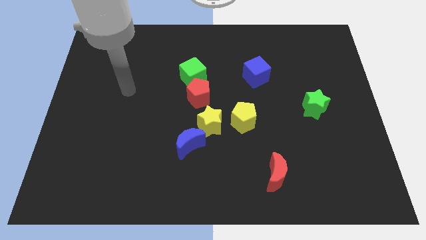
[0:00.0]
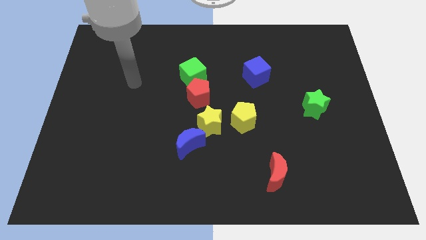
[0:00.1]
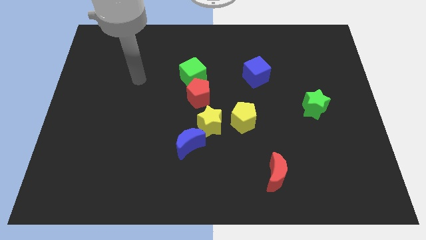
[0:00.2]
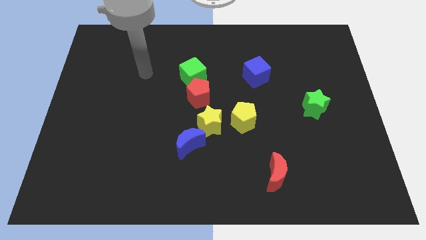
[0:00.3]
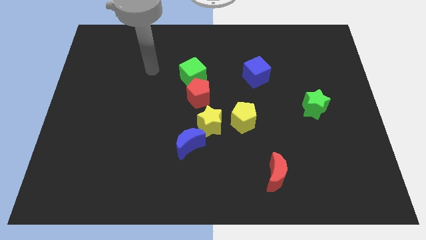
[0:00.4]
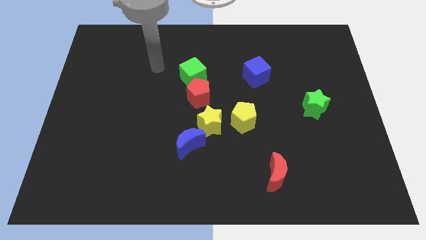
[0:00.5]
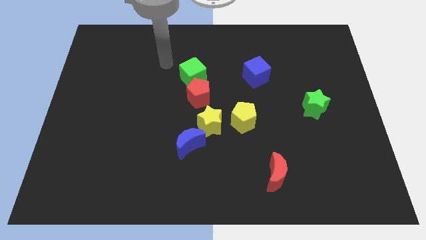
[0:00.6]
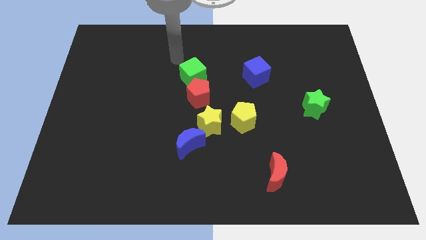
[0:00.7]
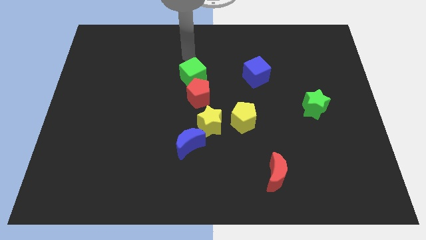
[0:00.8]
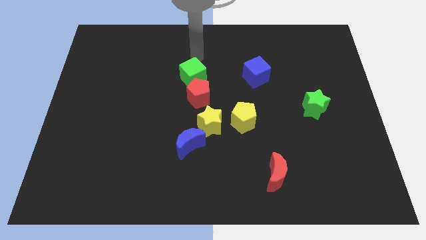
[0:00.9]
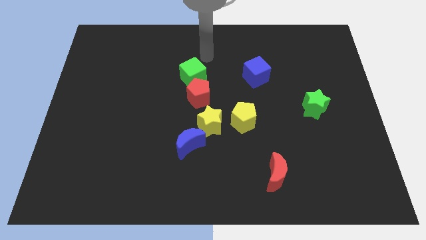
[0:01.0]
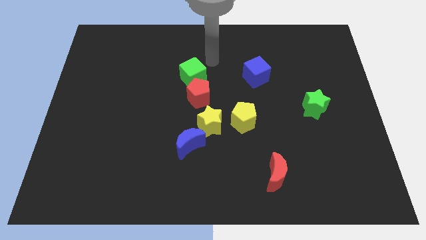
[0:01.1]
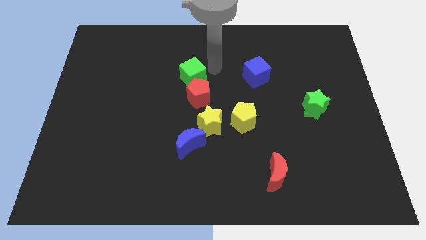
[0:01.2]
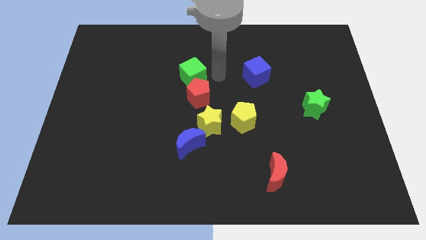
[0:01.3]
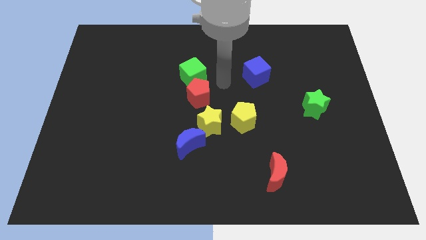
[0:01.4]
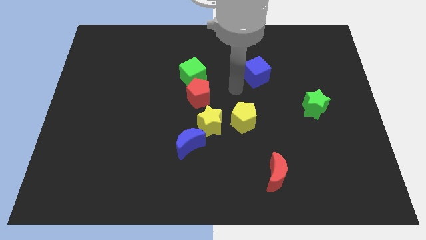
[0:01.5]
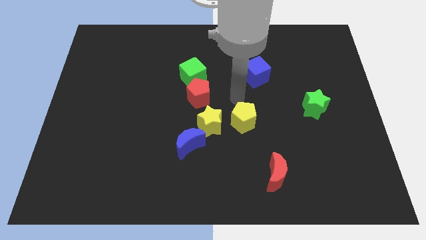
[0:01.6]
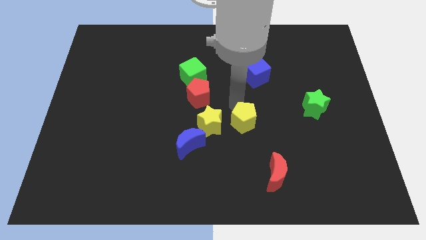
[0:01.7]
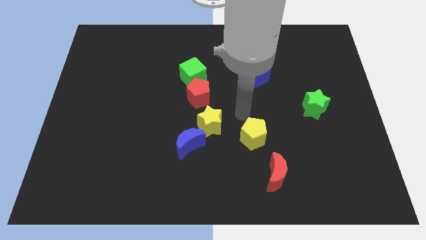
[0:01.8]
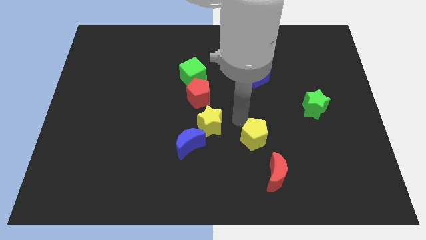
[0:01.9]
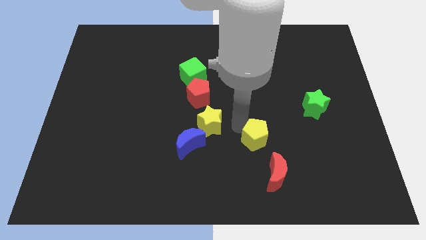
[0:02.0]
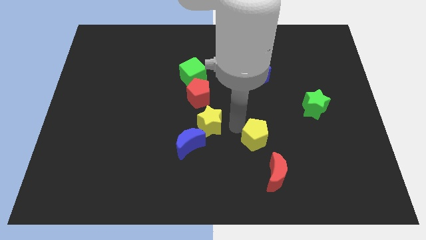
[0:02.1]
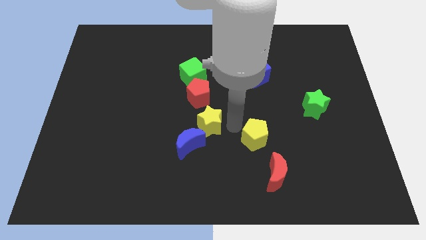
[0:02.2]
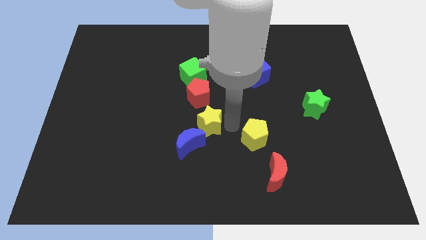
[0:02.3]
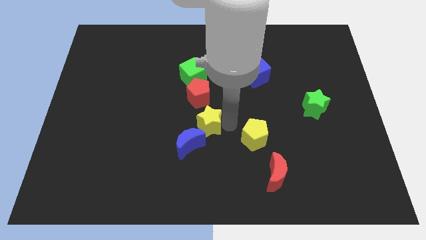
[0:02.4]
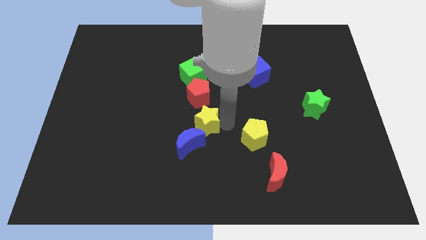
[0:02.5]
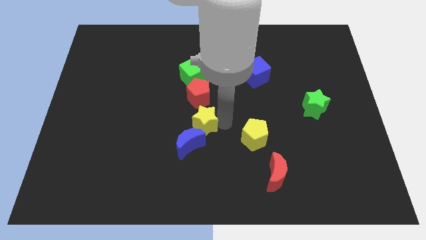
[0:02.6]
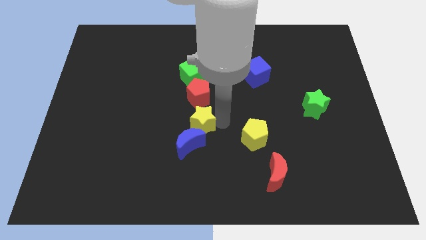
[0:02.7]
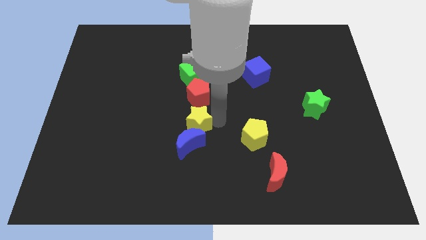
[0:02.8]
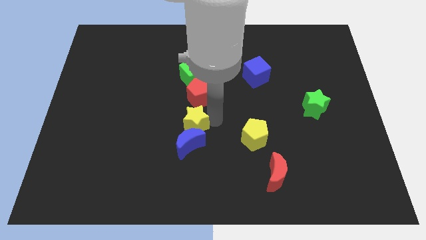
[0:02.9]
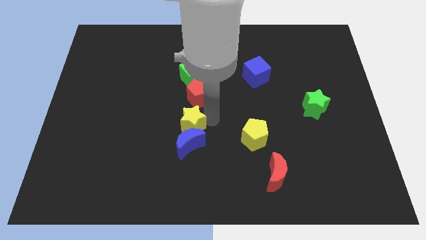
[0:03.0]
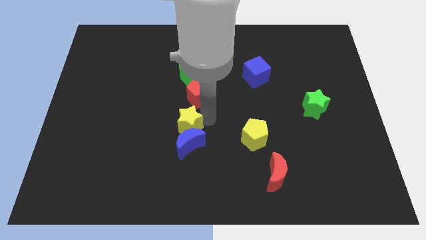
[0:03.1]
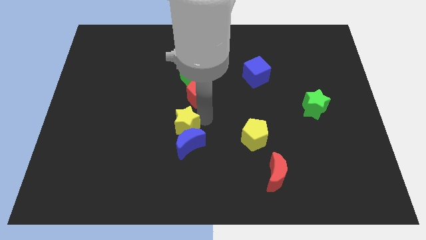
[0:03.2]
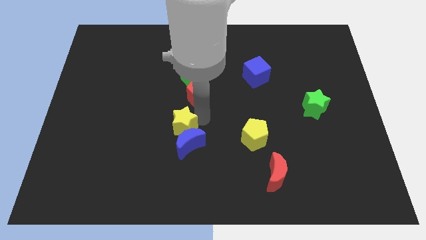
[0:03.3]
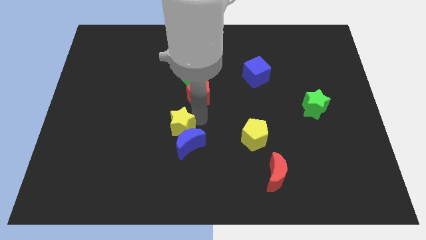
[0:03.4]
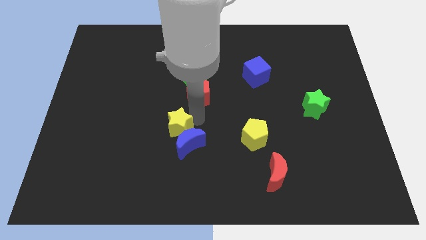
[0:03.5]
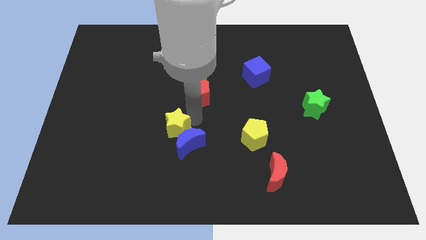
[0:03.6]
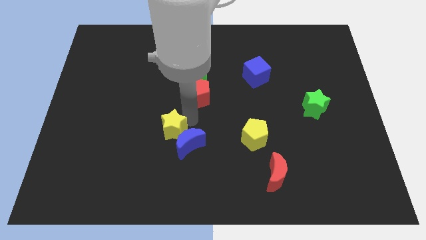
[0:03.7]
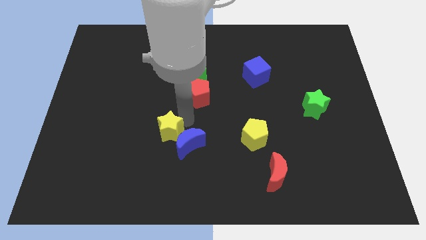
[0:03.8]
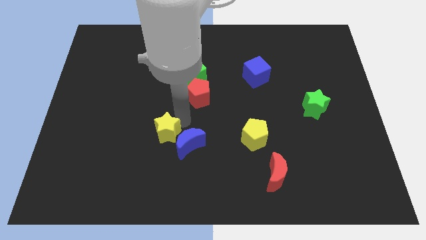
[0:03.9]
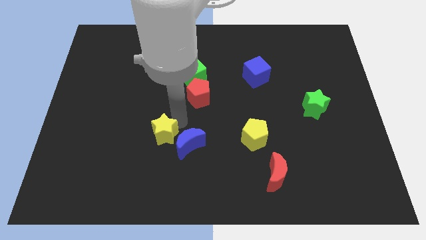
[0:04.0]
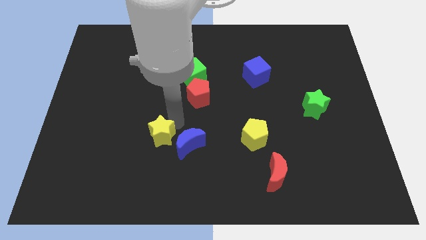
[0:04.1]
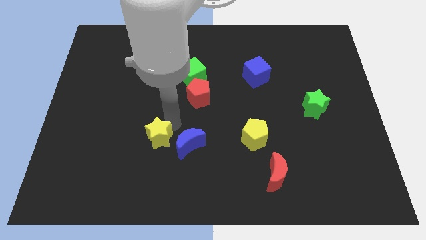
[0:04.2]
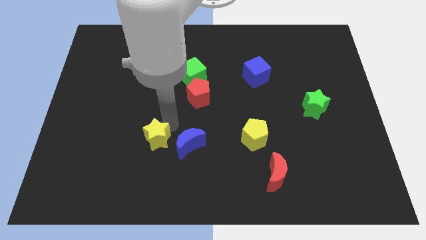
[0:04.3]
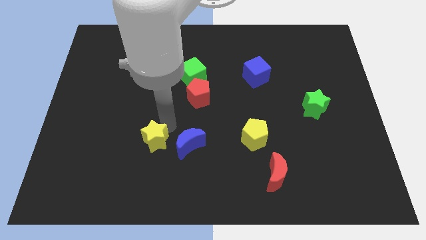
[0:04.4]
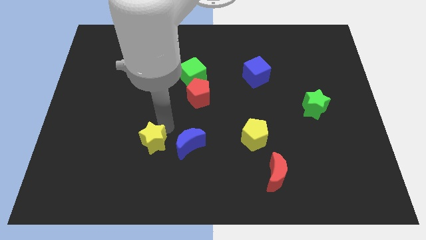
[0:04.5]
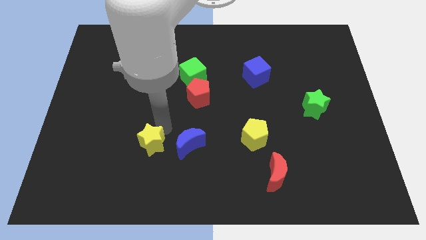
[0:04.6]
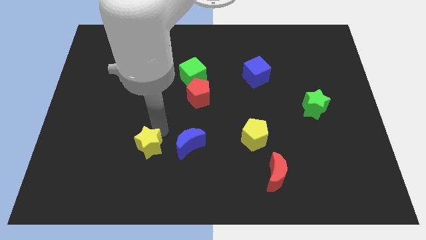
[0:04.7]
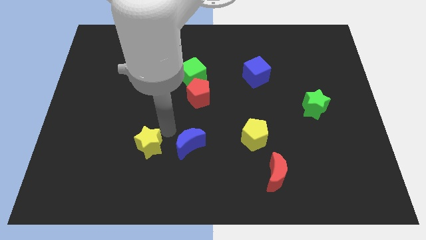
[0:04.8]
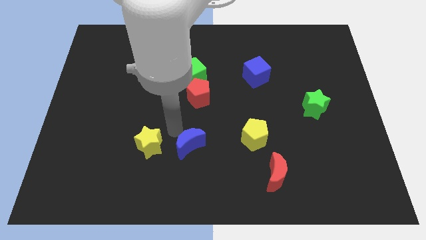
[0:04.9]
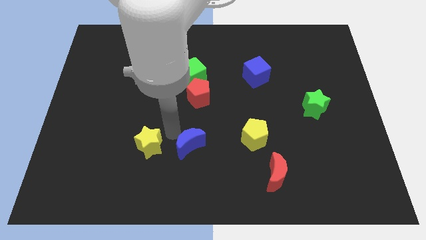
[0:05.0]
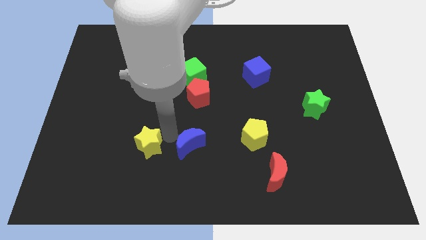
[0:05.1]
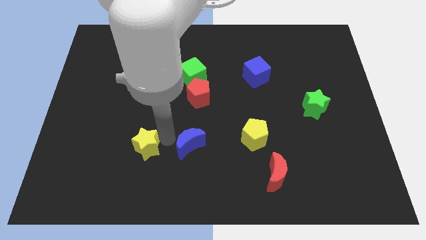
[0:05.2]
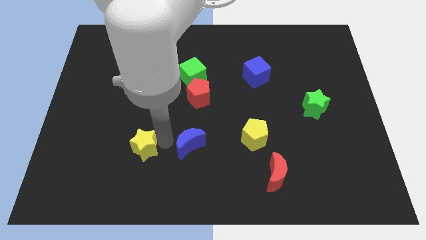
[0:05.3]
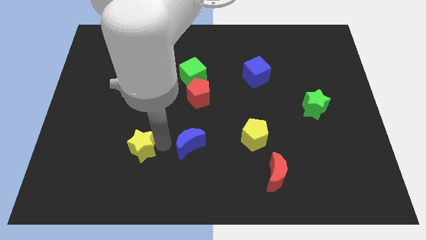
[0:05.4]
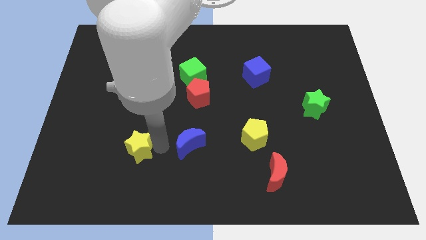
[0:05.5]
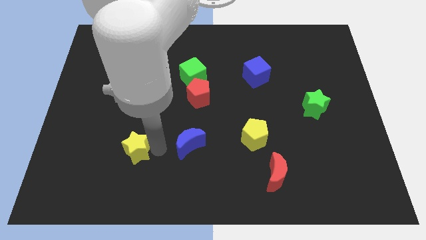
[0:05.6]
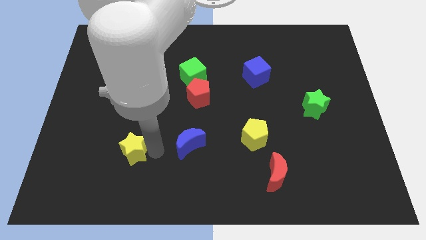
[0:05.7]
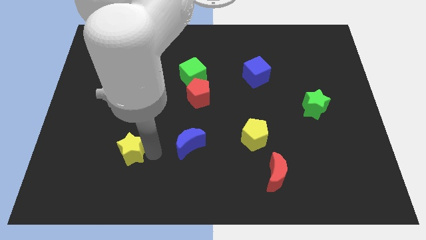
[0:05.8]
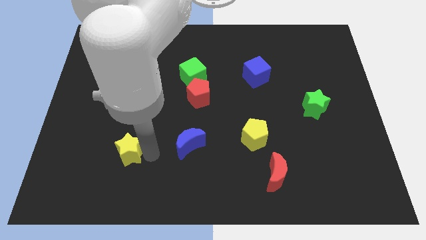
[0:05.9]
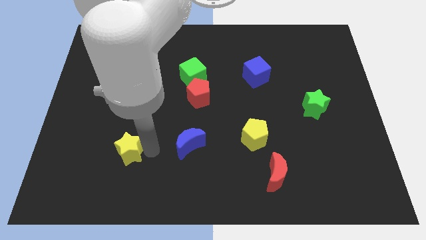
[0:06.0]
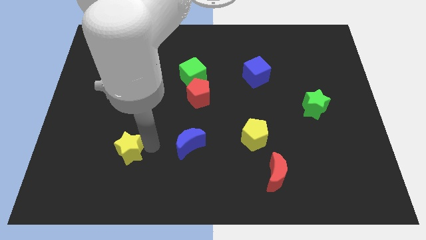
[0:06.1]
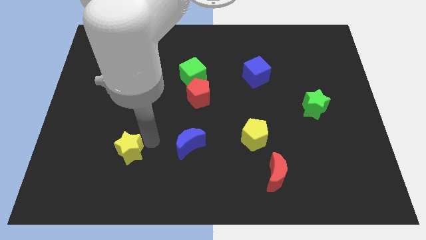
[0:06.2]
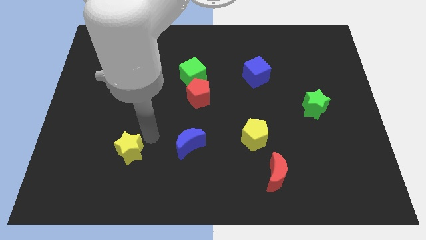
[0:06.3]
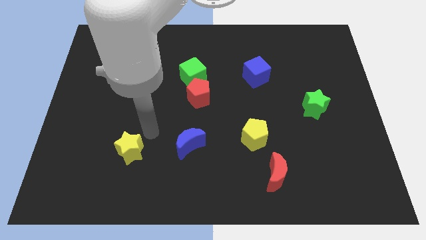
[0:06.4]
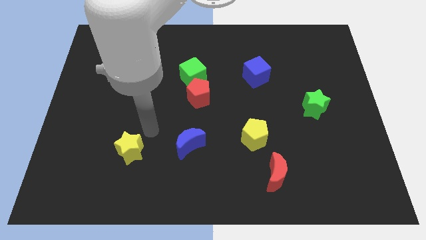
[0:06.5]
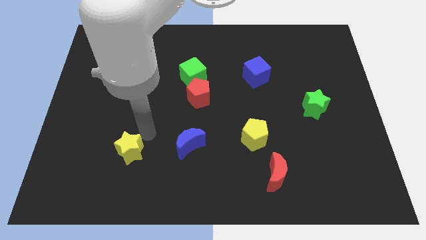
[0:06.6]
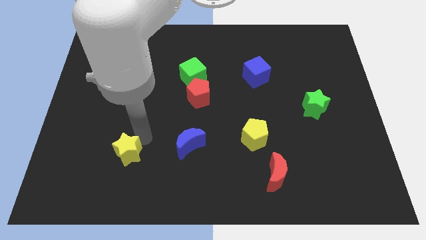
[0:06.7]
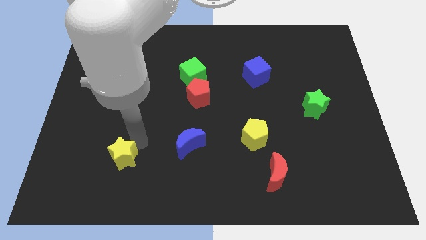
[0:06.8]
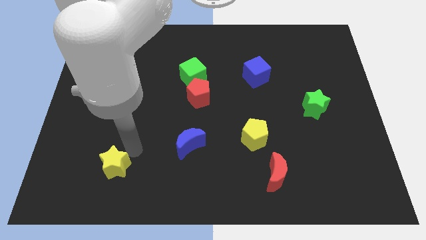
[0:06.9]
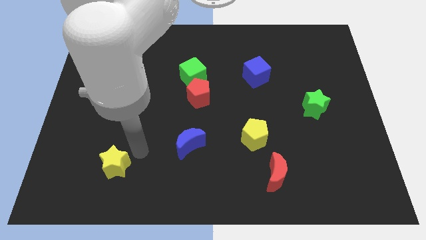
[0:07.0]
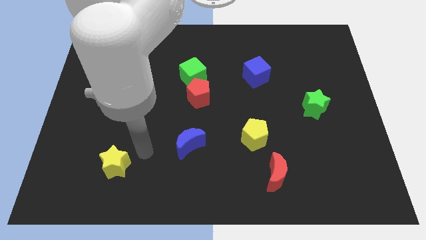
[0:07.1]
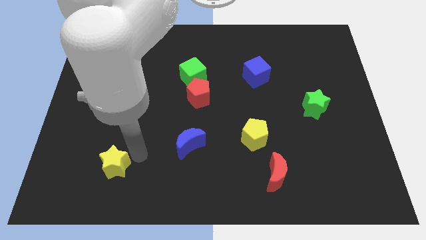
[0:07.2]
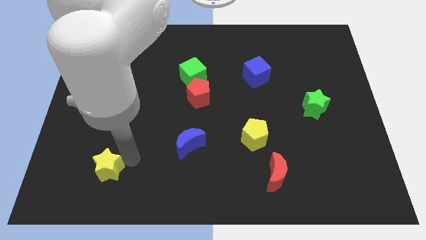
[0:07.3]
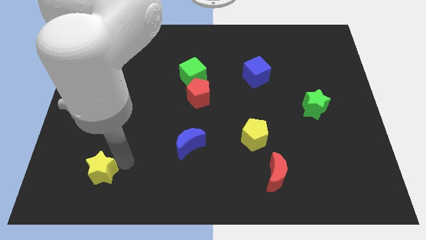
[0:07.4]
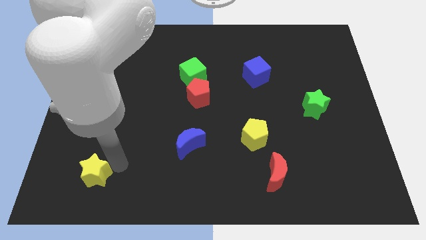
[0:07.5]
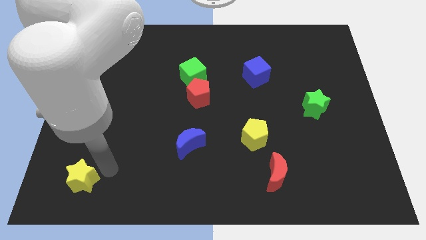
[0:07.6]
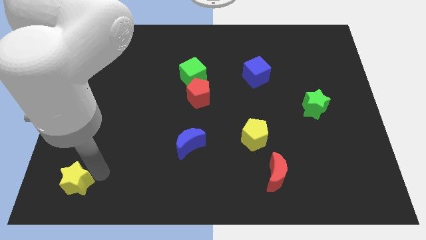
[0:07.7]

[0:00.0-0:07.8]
move the yellow star to the bottom left
